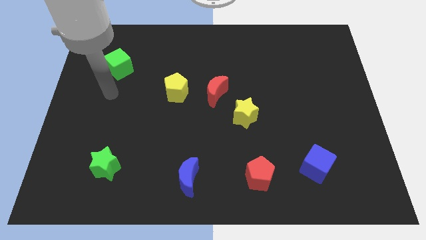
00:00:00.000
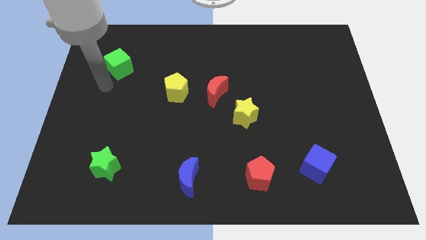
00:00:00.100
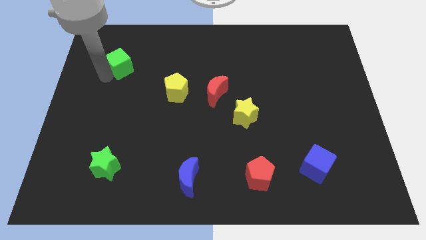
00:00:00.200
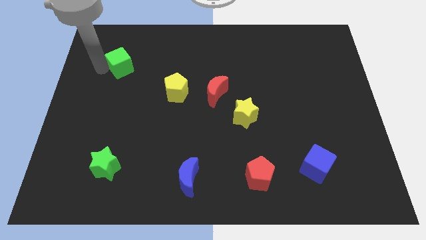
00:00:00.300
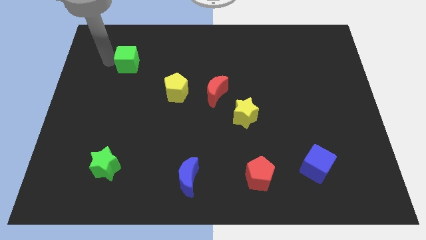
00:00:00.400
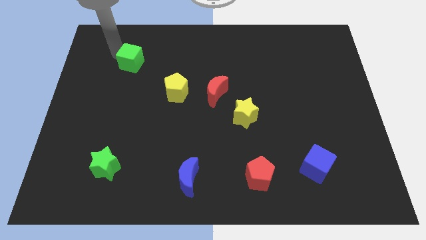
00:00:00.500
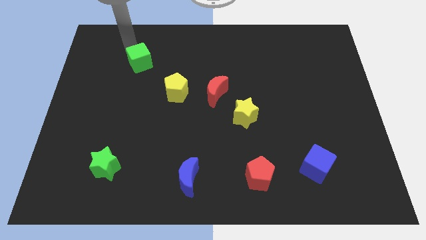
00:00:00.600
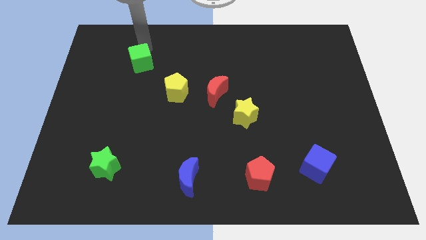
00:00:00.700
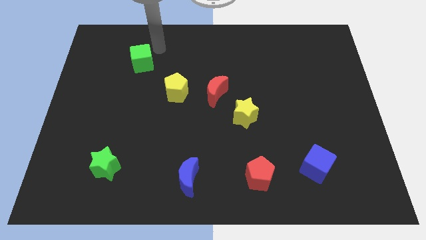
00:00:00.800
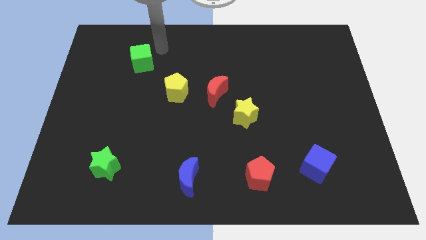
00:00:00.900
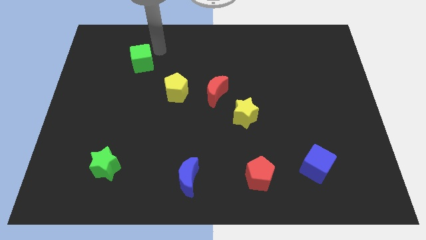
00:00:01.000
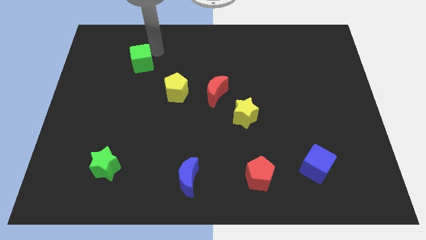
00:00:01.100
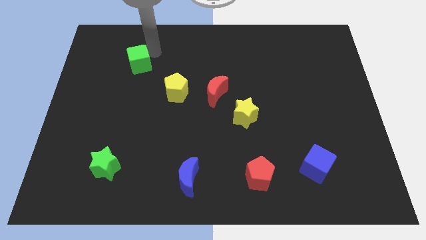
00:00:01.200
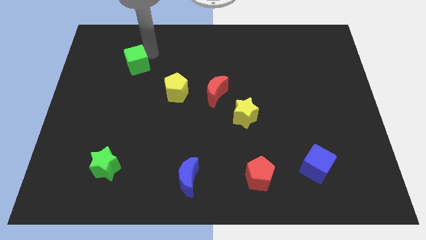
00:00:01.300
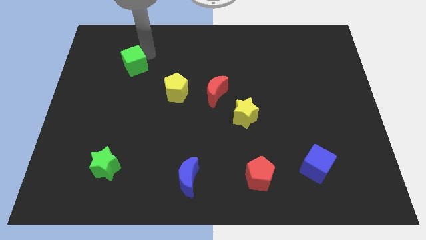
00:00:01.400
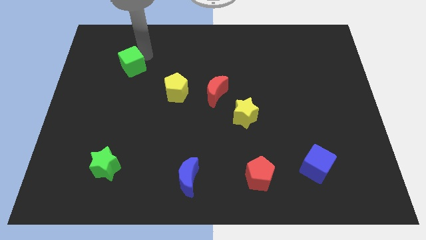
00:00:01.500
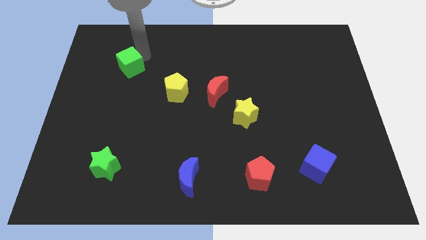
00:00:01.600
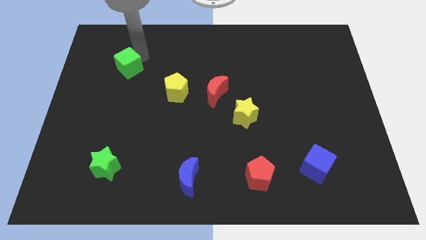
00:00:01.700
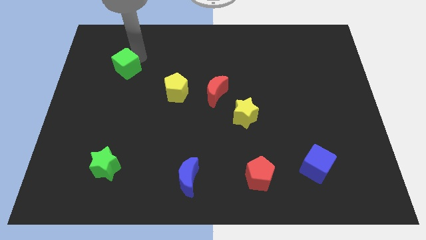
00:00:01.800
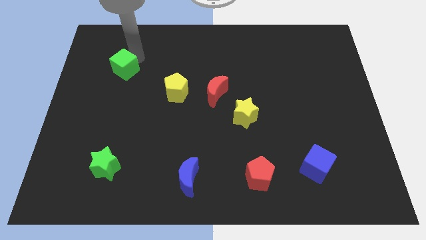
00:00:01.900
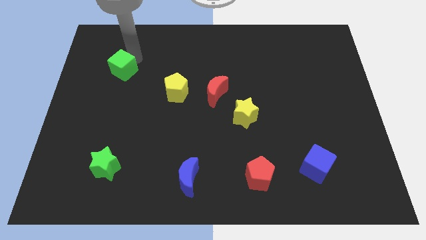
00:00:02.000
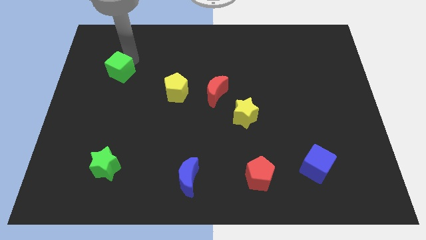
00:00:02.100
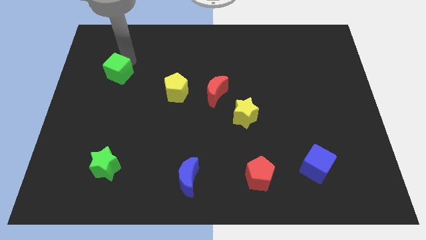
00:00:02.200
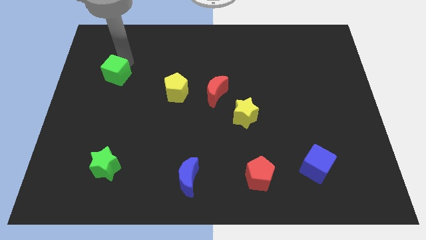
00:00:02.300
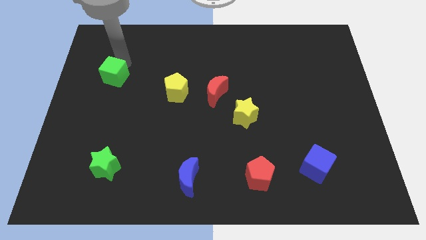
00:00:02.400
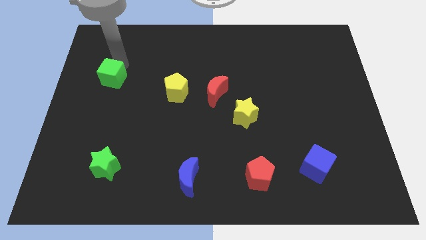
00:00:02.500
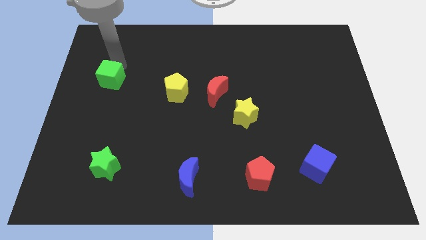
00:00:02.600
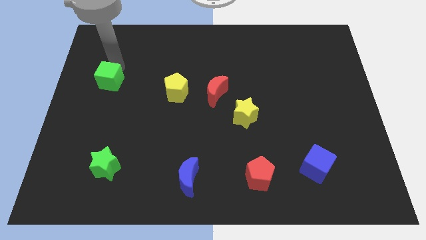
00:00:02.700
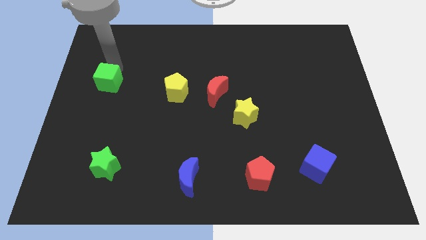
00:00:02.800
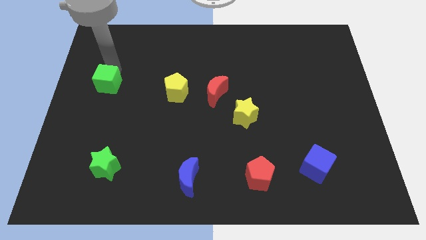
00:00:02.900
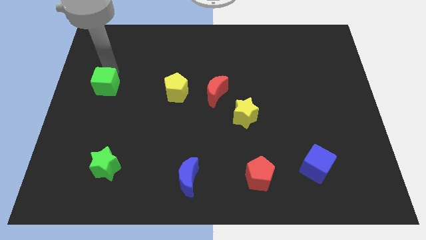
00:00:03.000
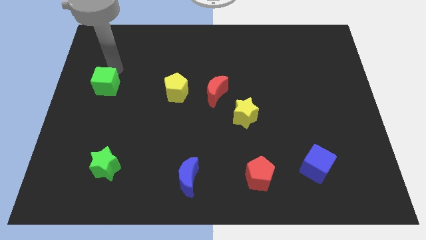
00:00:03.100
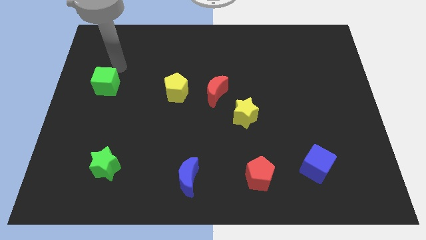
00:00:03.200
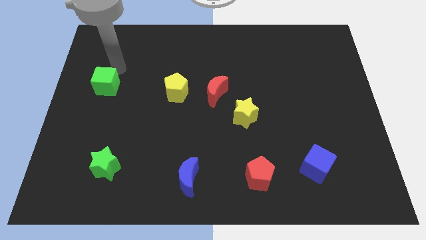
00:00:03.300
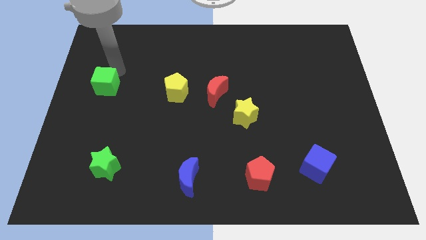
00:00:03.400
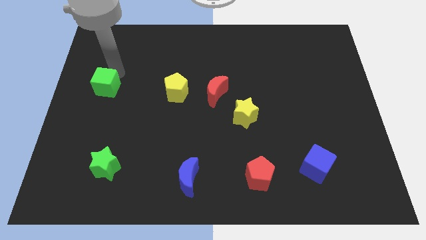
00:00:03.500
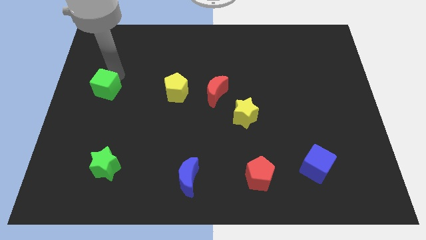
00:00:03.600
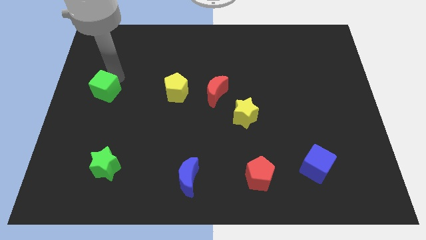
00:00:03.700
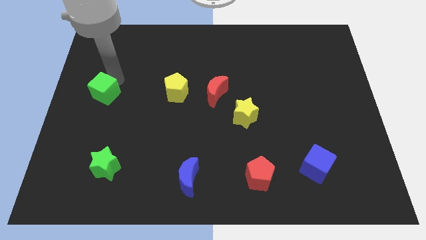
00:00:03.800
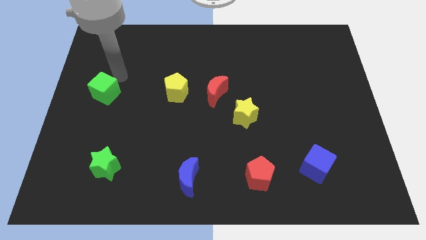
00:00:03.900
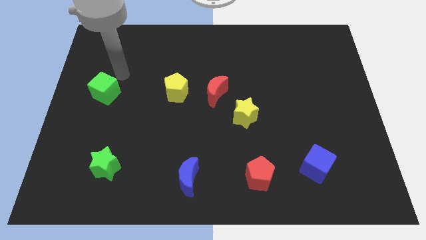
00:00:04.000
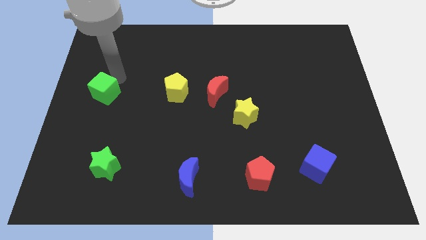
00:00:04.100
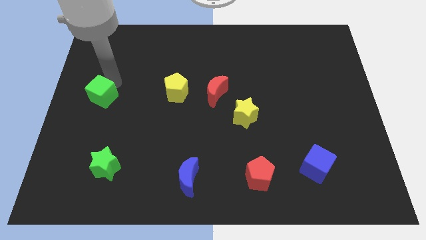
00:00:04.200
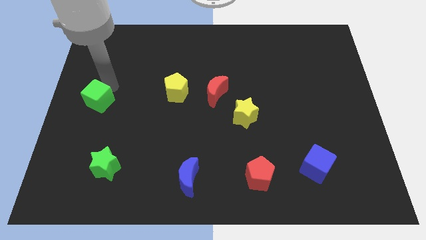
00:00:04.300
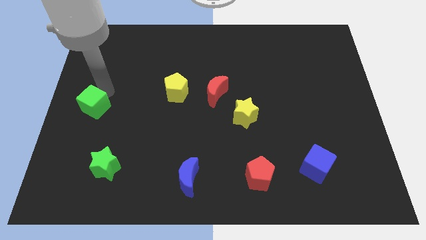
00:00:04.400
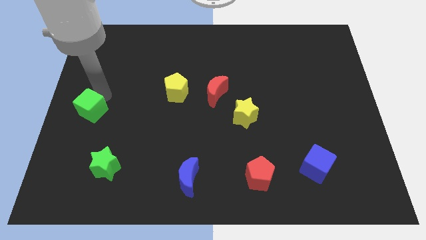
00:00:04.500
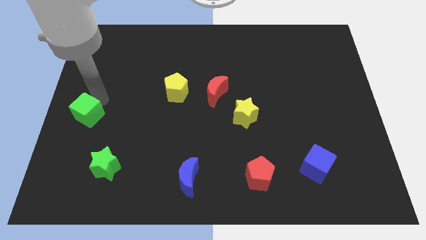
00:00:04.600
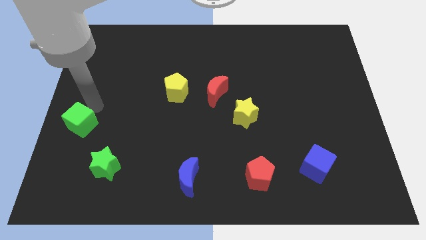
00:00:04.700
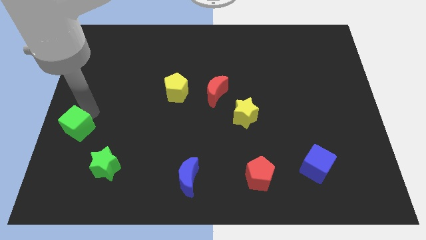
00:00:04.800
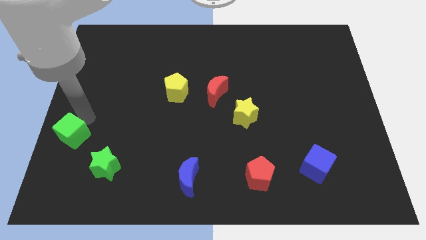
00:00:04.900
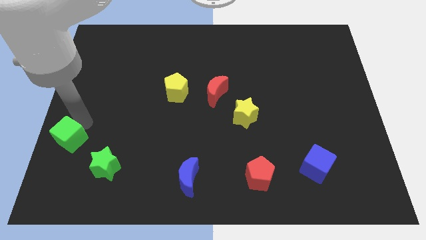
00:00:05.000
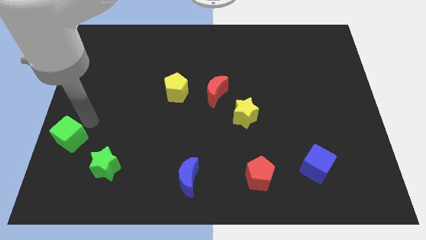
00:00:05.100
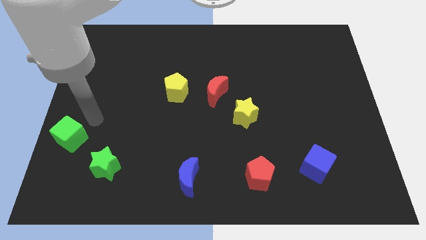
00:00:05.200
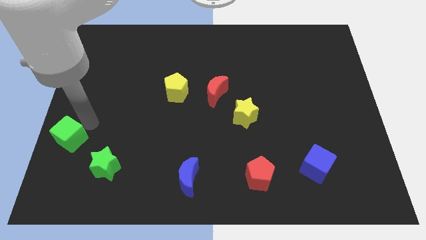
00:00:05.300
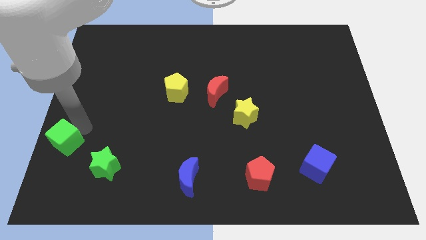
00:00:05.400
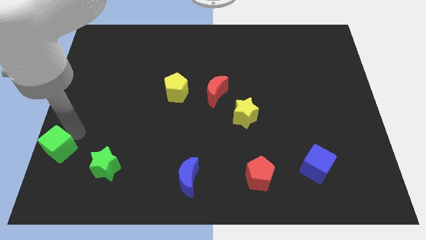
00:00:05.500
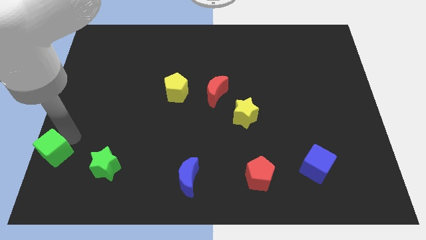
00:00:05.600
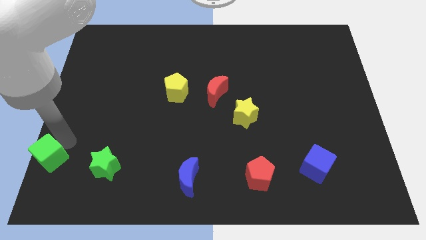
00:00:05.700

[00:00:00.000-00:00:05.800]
slide the green cube to the bottom left corner

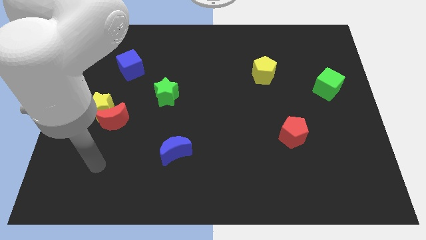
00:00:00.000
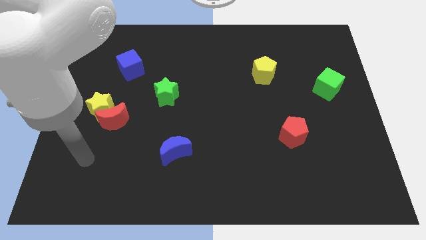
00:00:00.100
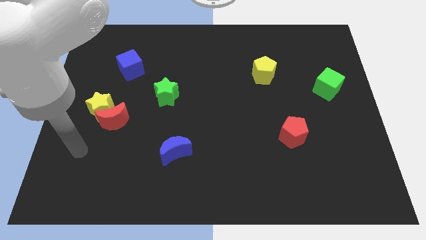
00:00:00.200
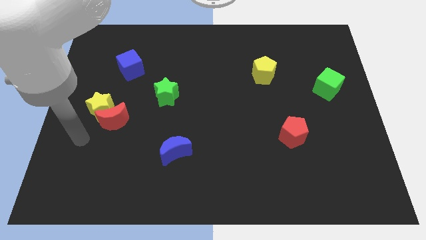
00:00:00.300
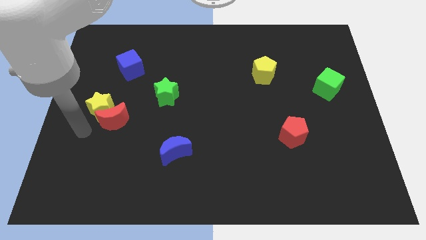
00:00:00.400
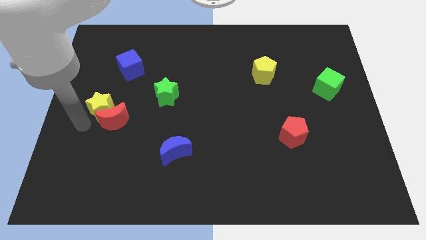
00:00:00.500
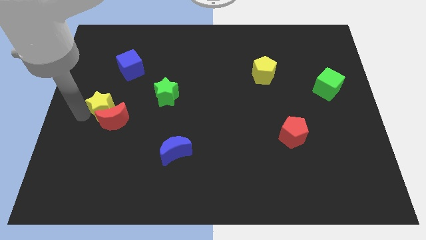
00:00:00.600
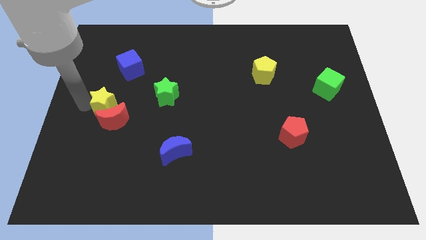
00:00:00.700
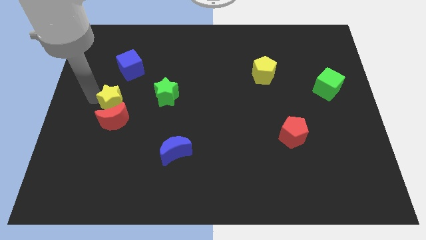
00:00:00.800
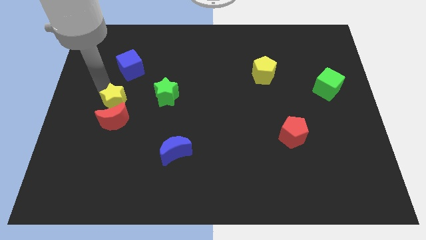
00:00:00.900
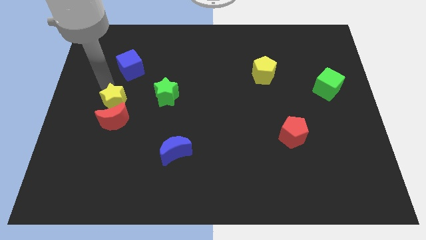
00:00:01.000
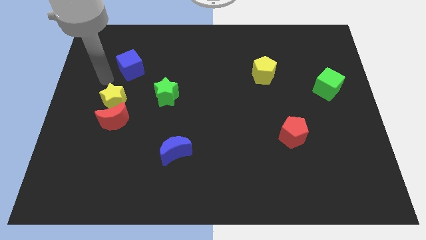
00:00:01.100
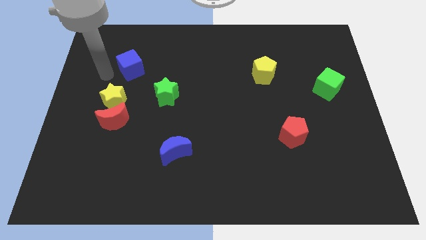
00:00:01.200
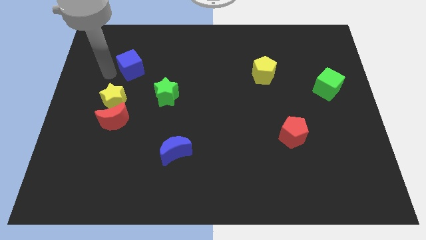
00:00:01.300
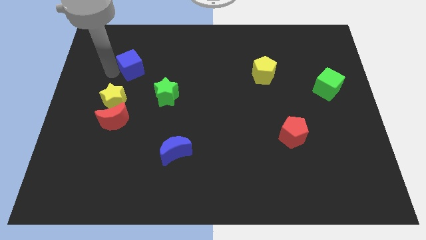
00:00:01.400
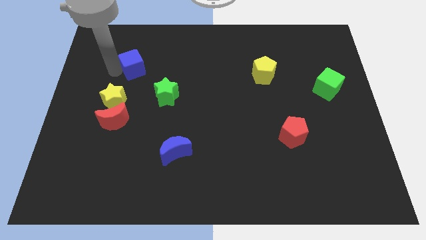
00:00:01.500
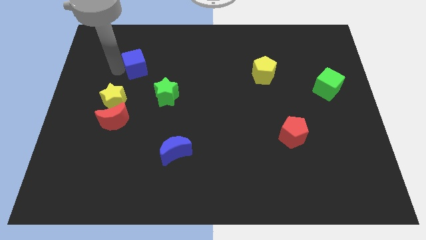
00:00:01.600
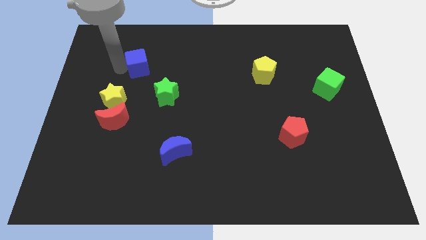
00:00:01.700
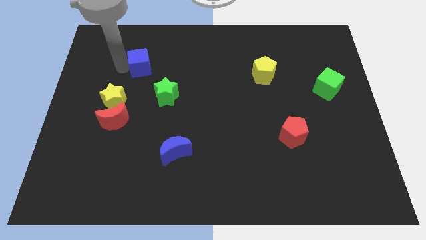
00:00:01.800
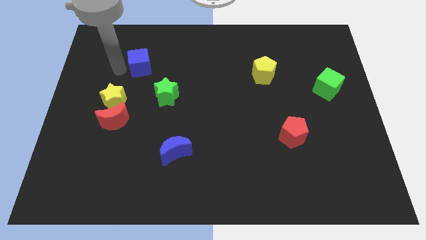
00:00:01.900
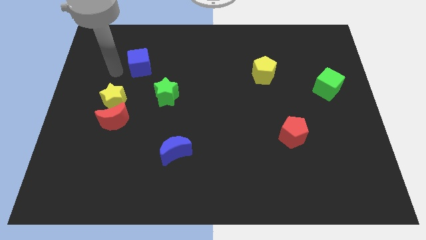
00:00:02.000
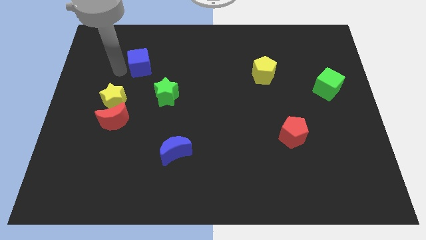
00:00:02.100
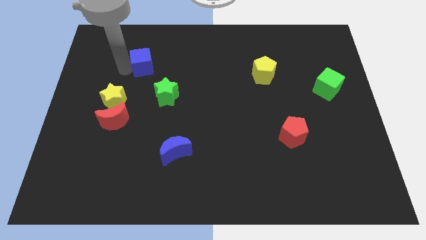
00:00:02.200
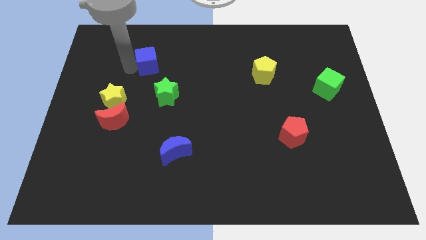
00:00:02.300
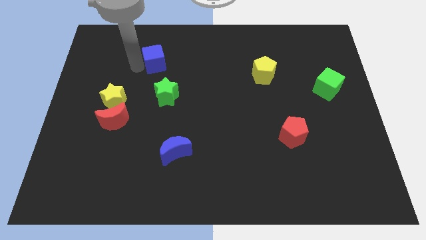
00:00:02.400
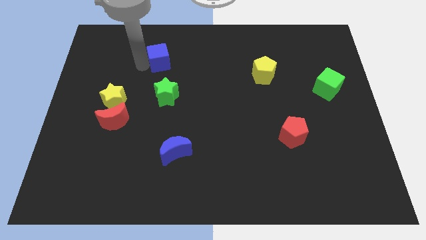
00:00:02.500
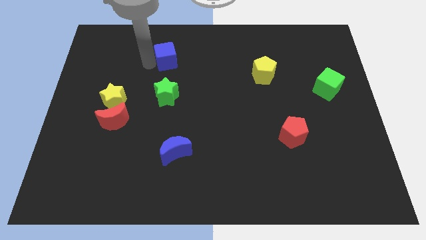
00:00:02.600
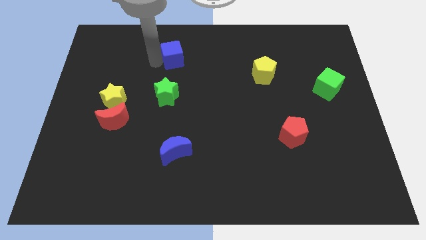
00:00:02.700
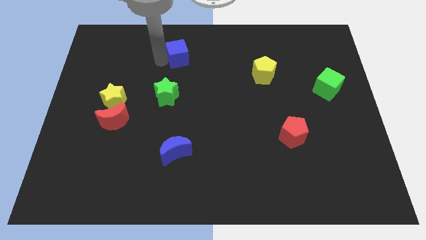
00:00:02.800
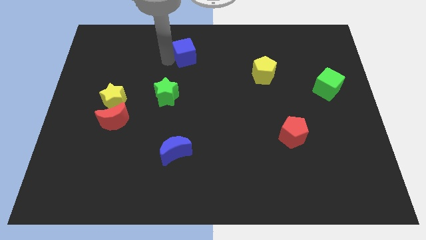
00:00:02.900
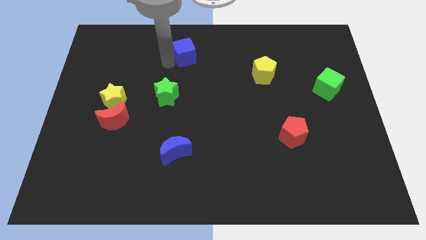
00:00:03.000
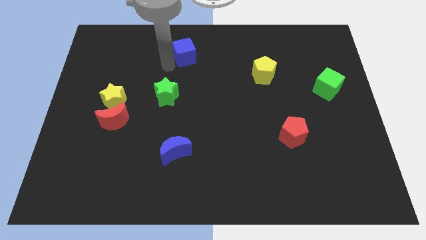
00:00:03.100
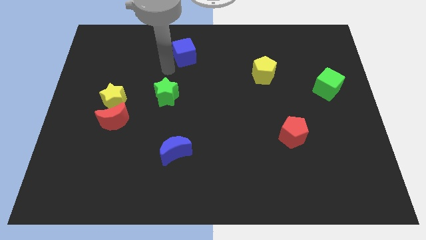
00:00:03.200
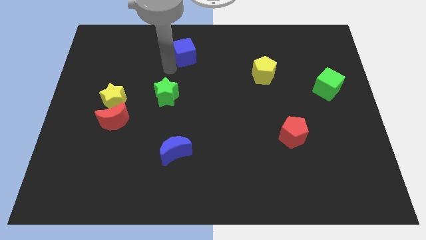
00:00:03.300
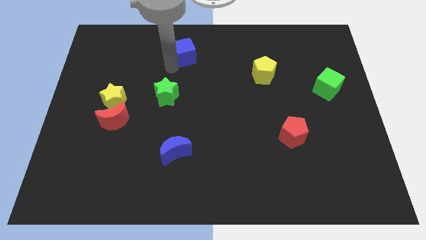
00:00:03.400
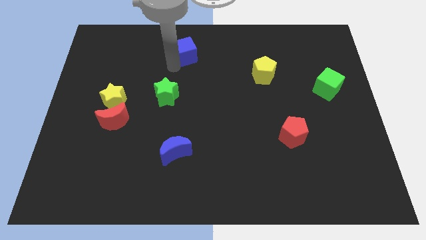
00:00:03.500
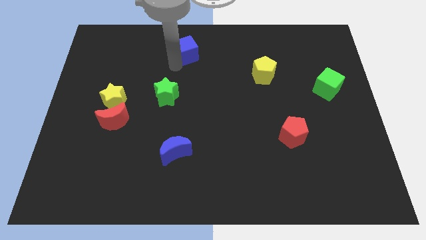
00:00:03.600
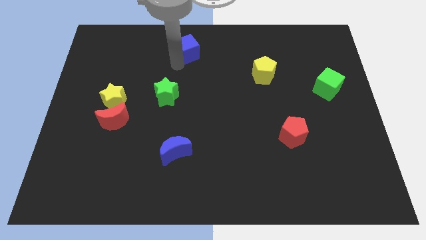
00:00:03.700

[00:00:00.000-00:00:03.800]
move the blue cube to the top side
